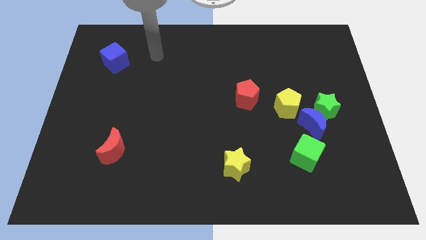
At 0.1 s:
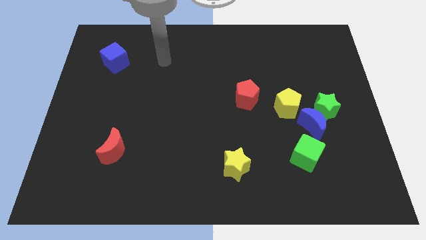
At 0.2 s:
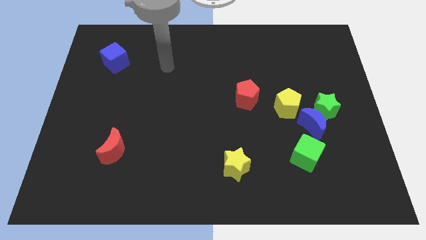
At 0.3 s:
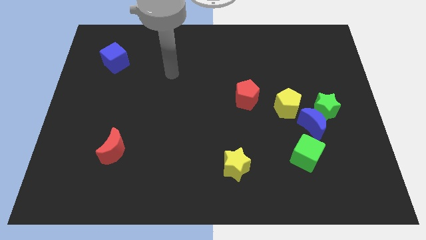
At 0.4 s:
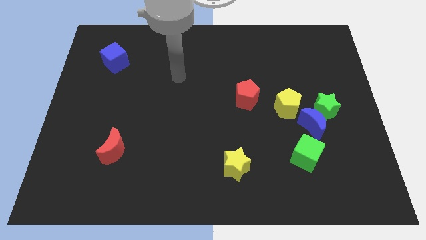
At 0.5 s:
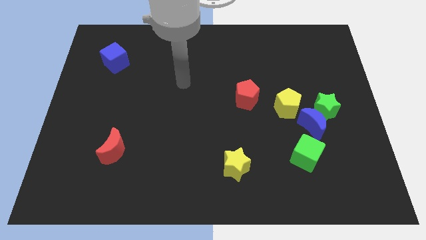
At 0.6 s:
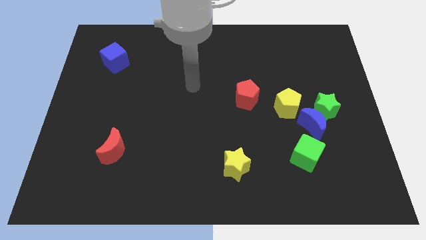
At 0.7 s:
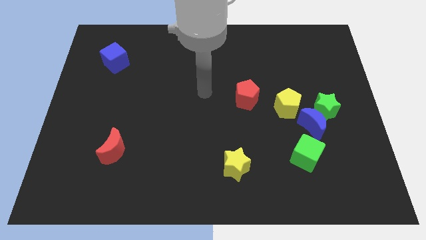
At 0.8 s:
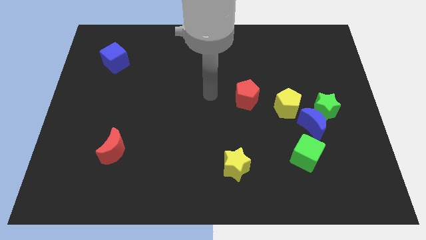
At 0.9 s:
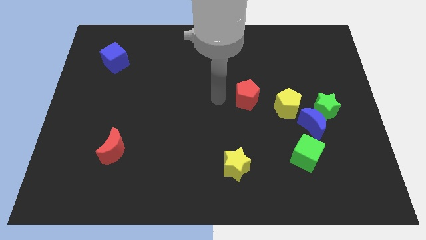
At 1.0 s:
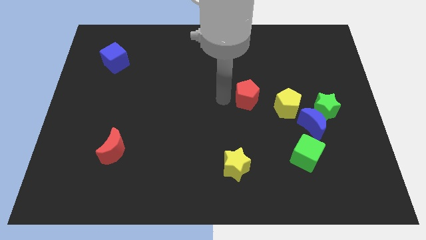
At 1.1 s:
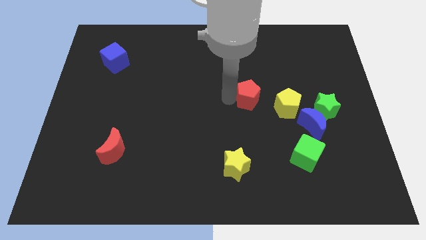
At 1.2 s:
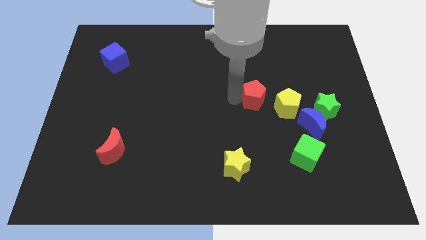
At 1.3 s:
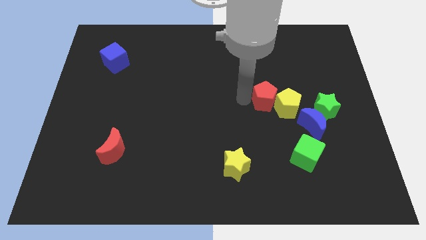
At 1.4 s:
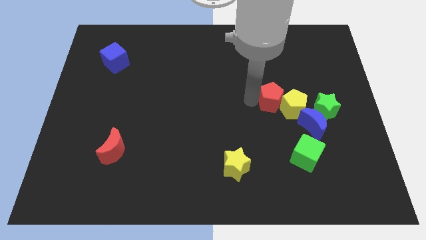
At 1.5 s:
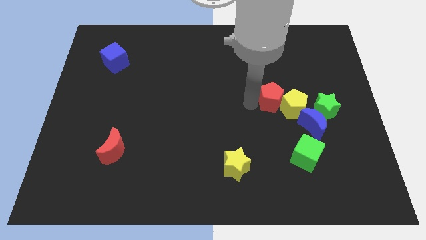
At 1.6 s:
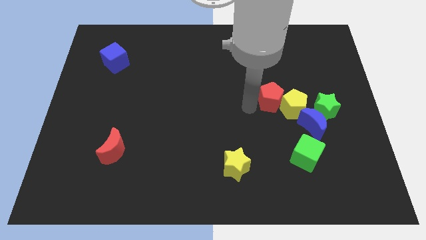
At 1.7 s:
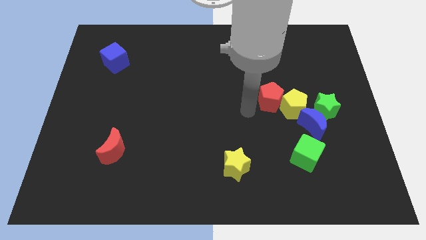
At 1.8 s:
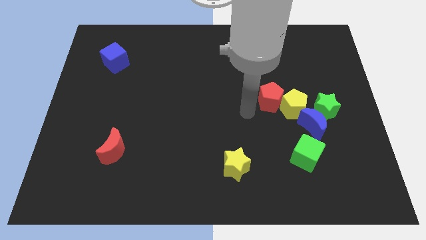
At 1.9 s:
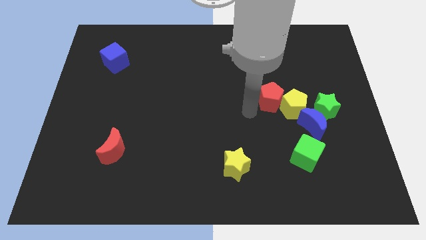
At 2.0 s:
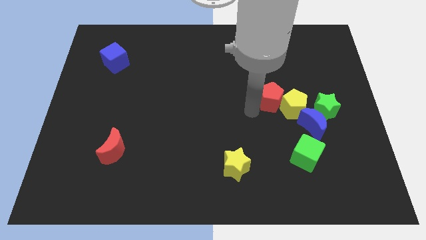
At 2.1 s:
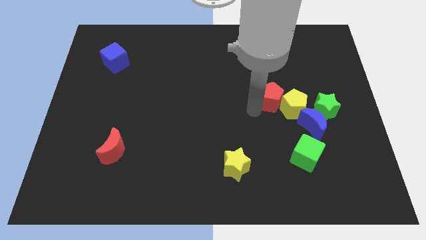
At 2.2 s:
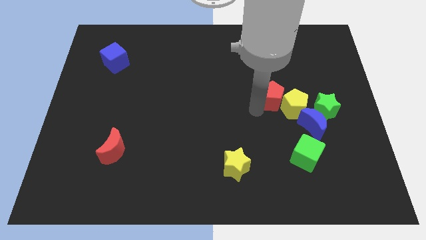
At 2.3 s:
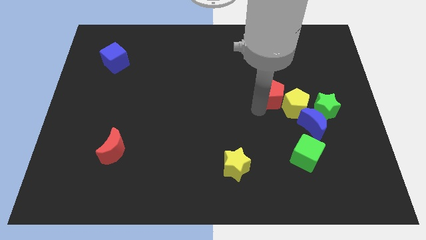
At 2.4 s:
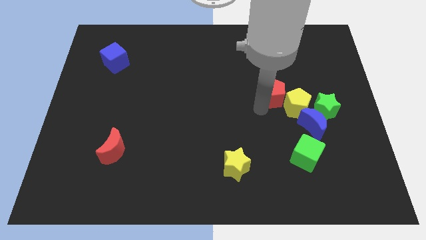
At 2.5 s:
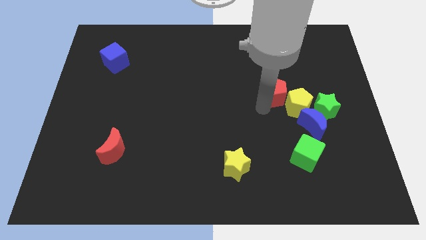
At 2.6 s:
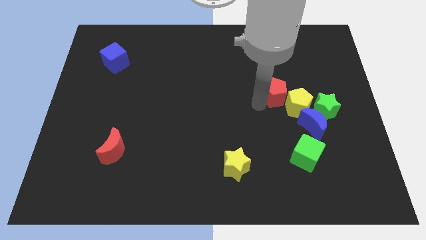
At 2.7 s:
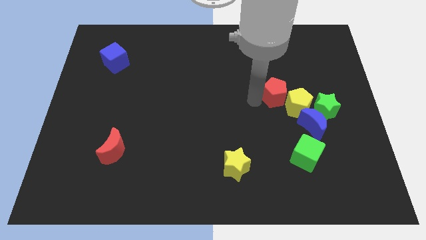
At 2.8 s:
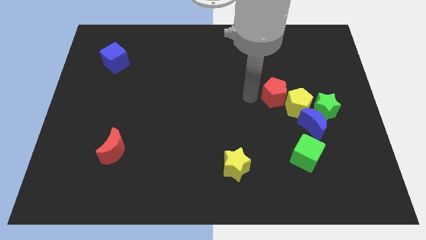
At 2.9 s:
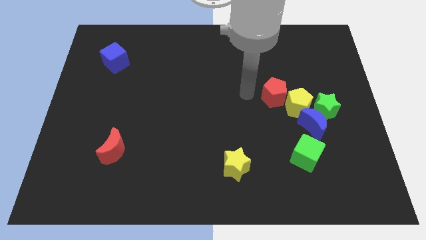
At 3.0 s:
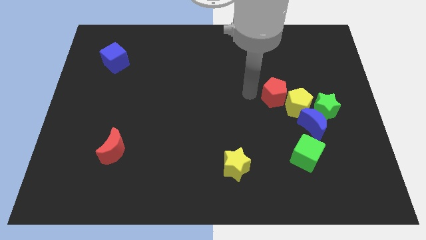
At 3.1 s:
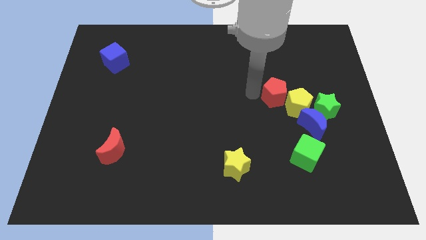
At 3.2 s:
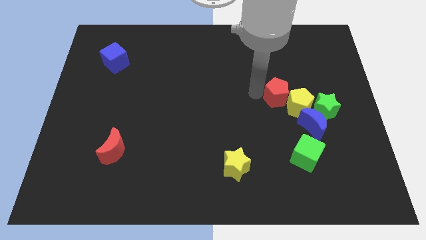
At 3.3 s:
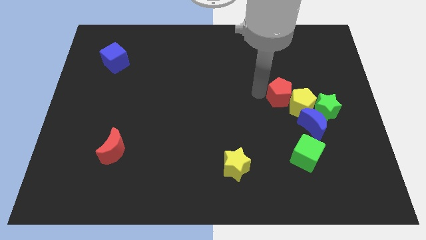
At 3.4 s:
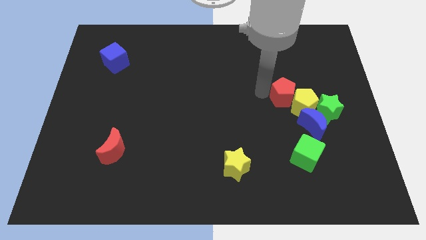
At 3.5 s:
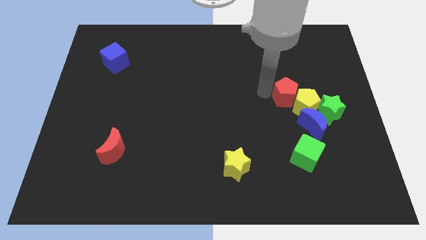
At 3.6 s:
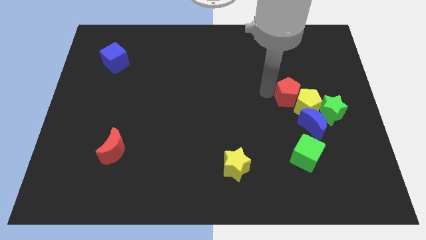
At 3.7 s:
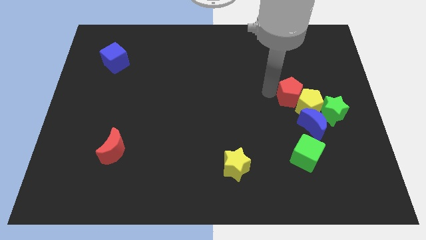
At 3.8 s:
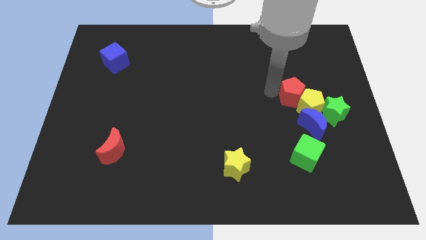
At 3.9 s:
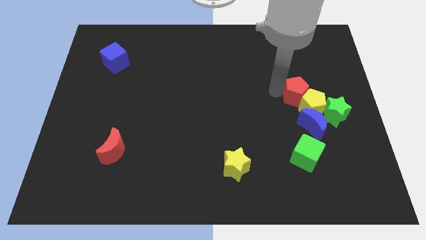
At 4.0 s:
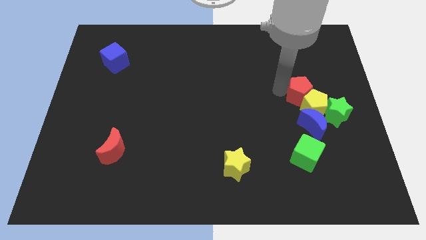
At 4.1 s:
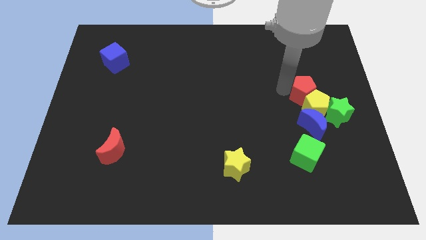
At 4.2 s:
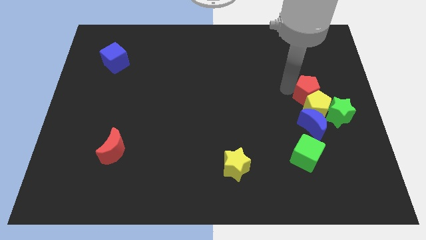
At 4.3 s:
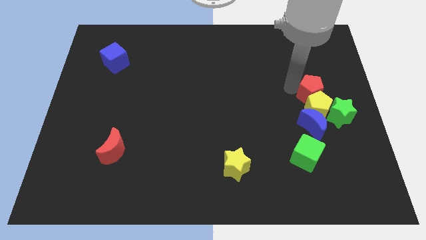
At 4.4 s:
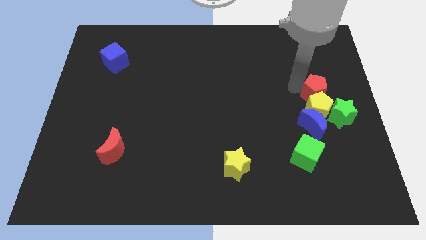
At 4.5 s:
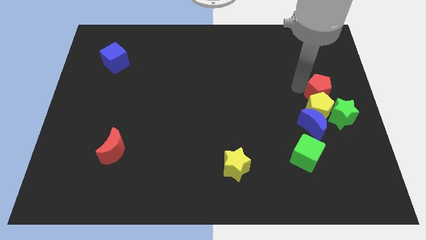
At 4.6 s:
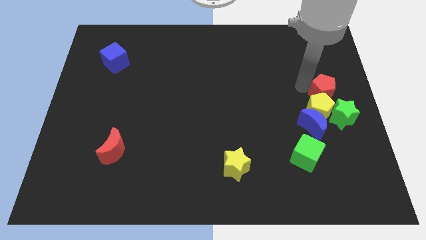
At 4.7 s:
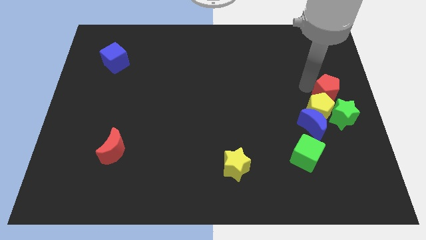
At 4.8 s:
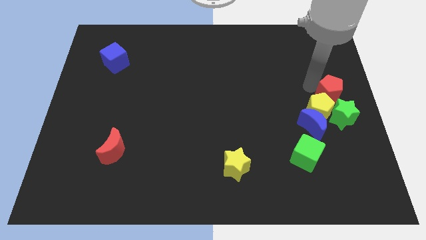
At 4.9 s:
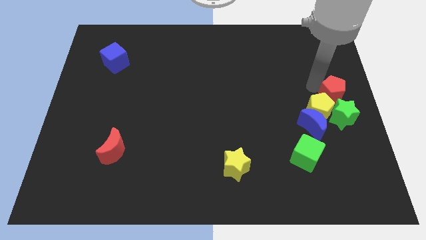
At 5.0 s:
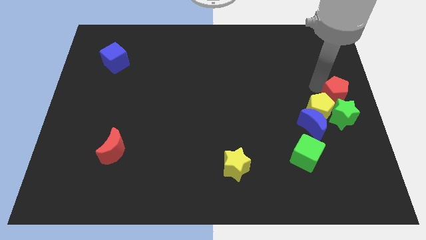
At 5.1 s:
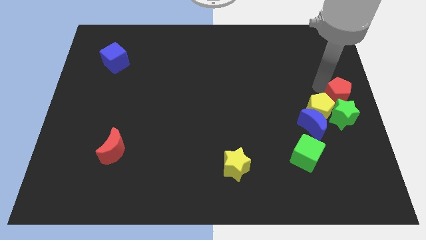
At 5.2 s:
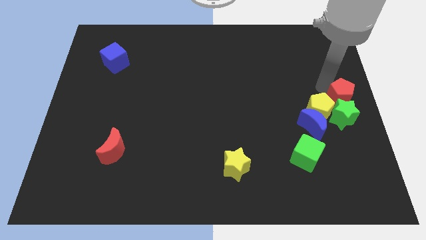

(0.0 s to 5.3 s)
slide the red pentagon to the green star

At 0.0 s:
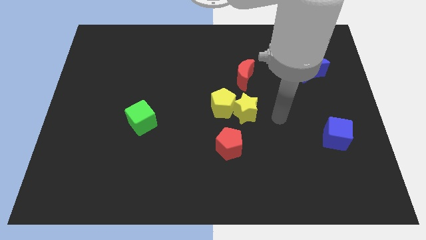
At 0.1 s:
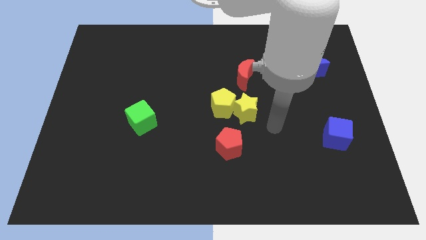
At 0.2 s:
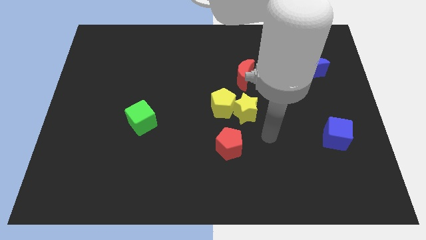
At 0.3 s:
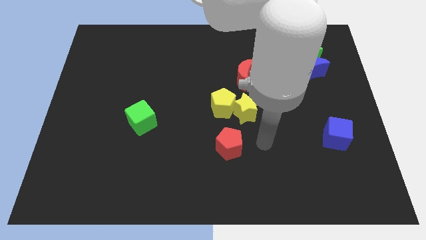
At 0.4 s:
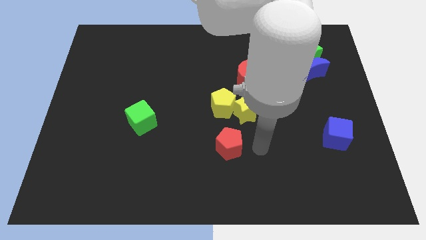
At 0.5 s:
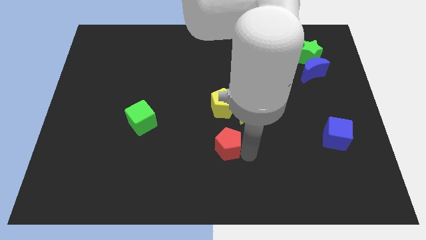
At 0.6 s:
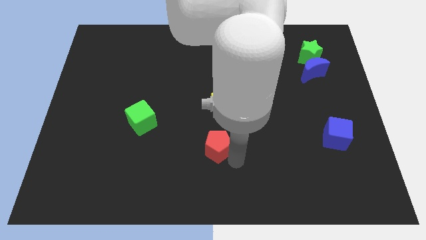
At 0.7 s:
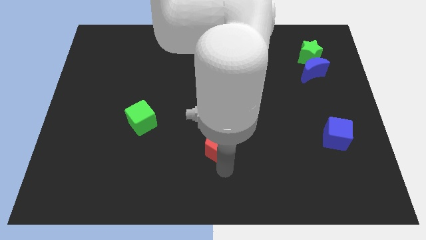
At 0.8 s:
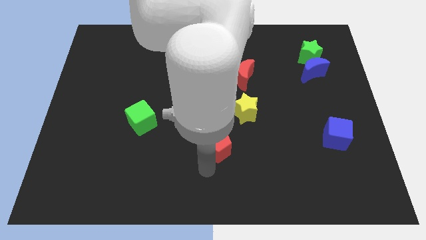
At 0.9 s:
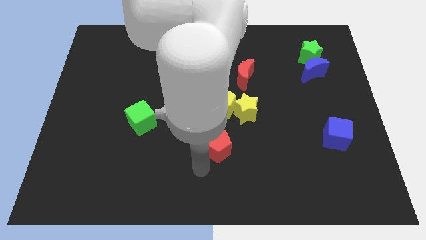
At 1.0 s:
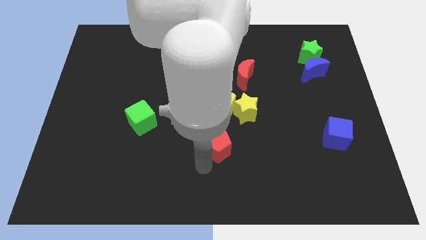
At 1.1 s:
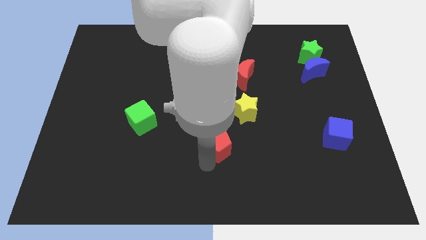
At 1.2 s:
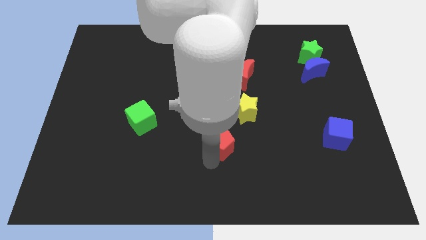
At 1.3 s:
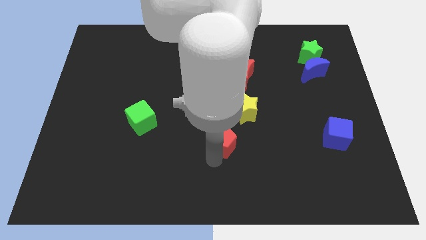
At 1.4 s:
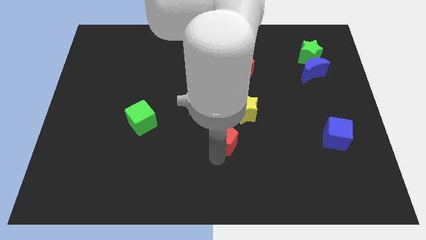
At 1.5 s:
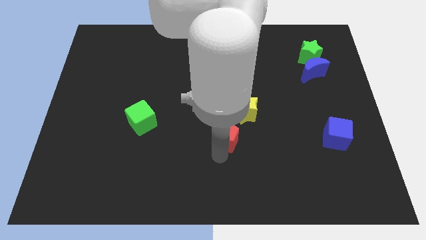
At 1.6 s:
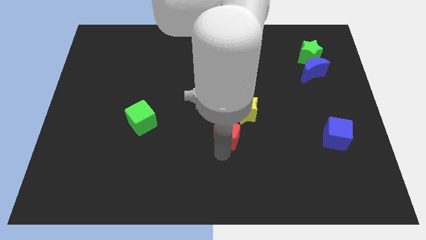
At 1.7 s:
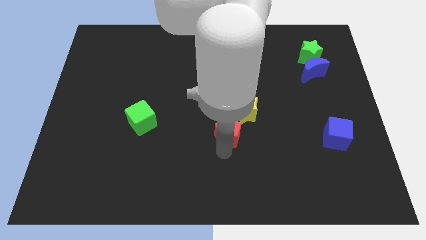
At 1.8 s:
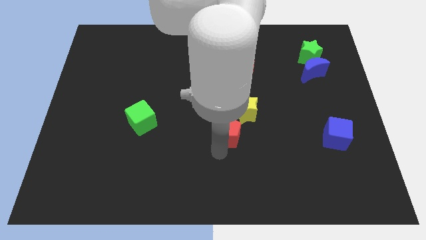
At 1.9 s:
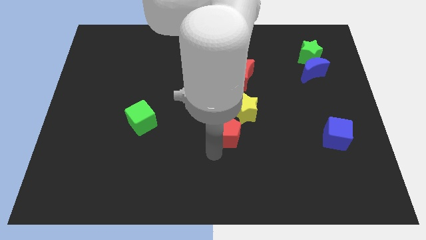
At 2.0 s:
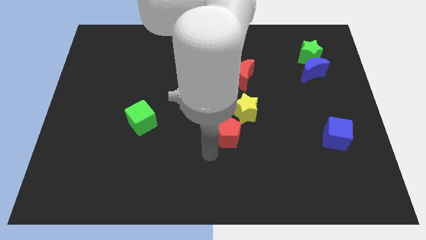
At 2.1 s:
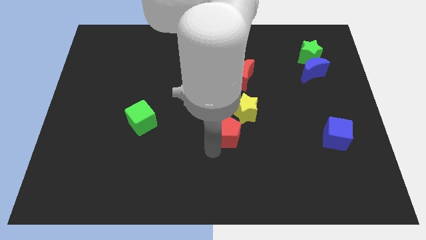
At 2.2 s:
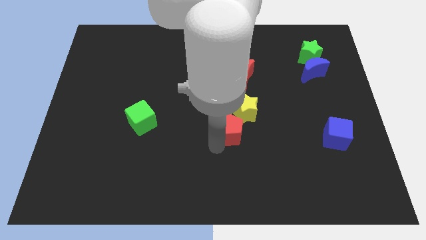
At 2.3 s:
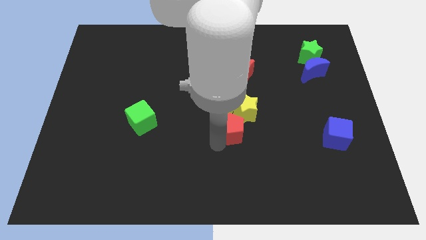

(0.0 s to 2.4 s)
push the red pentagon towards the yellow star
